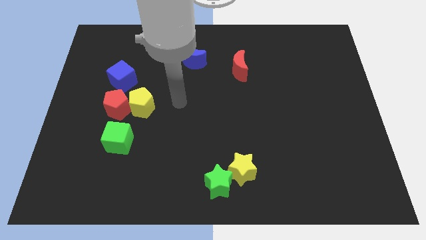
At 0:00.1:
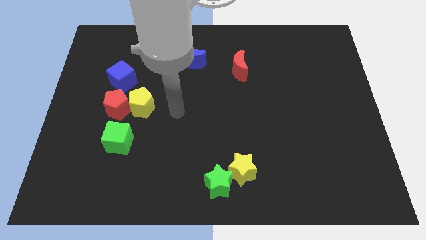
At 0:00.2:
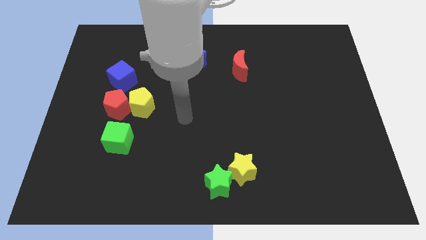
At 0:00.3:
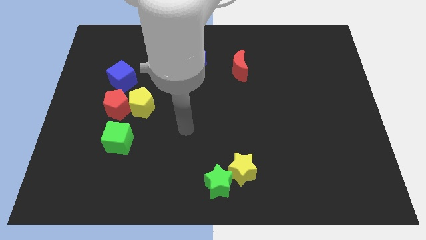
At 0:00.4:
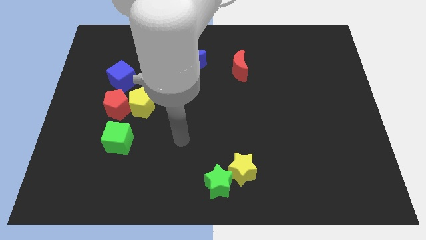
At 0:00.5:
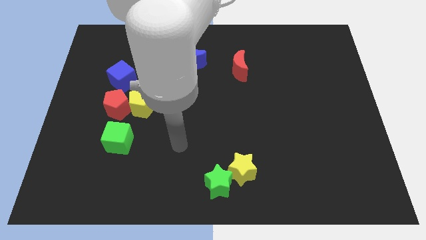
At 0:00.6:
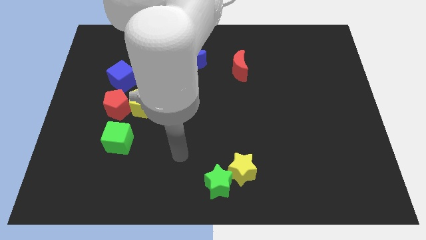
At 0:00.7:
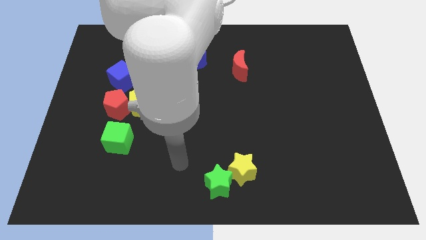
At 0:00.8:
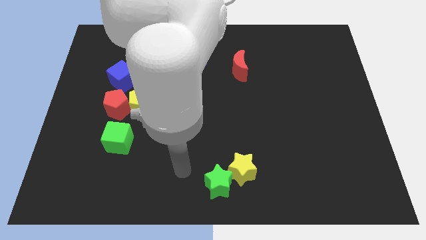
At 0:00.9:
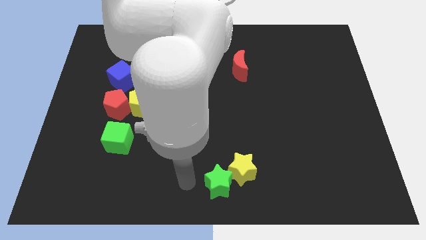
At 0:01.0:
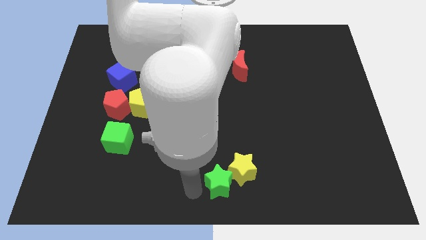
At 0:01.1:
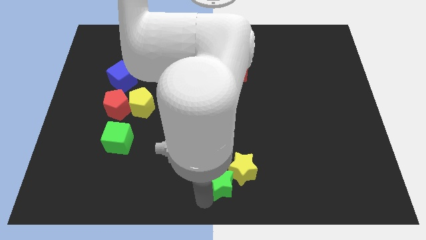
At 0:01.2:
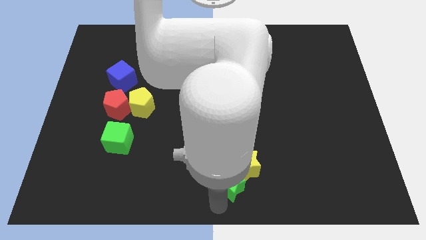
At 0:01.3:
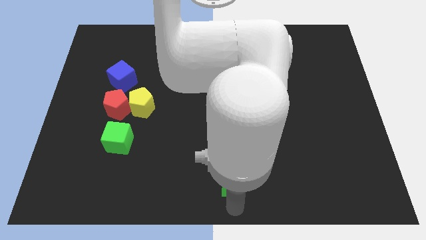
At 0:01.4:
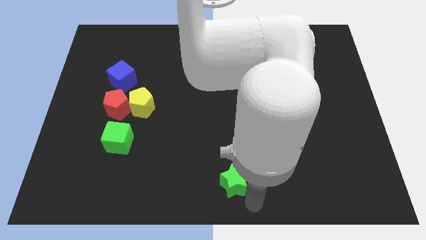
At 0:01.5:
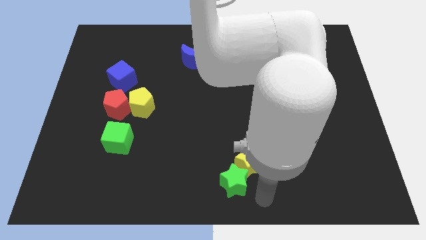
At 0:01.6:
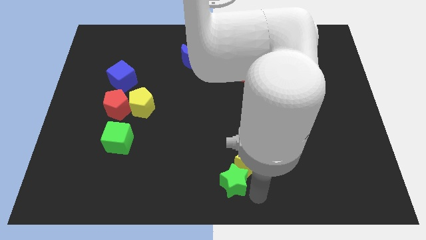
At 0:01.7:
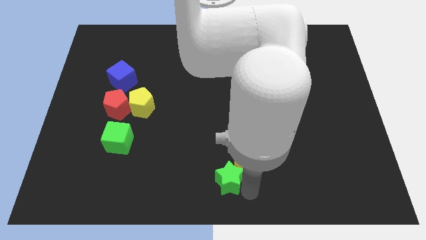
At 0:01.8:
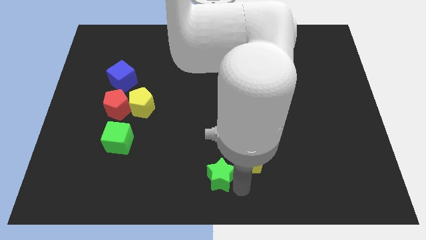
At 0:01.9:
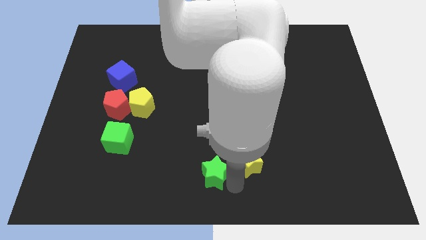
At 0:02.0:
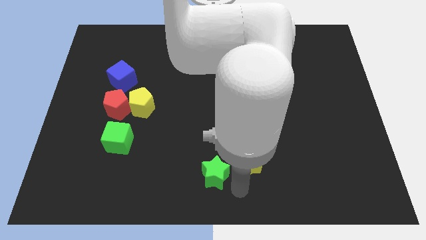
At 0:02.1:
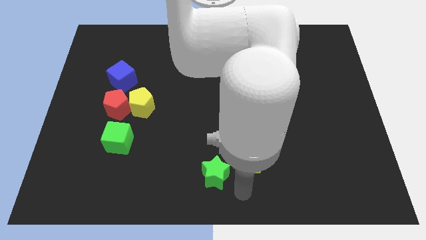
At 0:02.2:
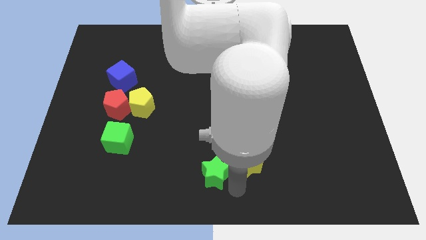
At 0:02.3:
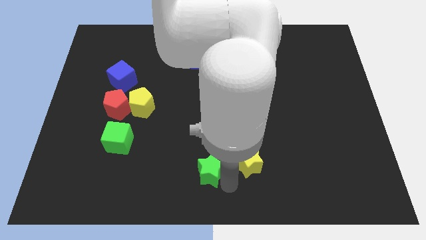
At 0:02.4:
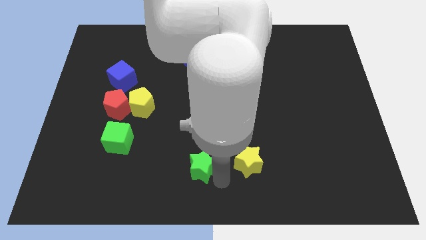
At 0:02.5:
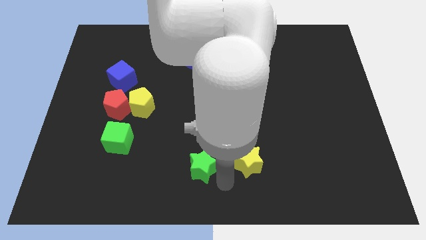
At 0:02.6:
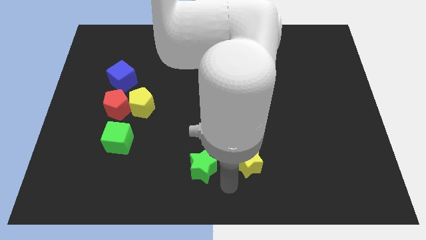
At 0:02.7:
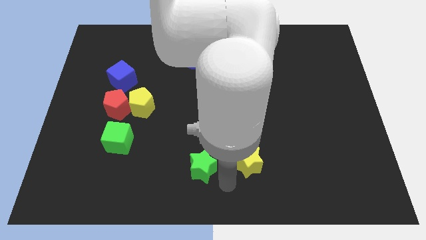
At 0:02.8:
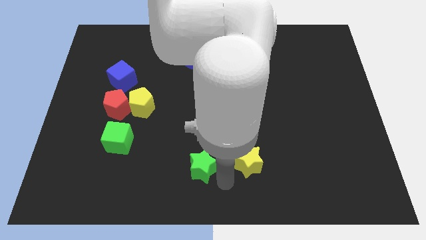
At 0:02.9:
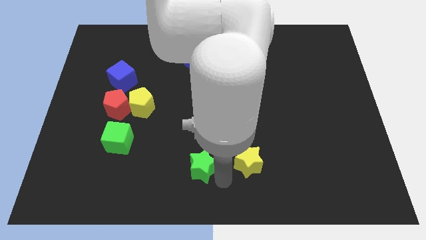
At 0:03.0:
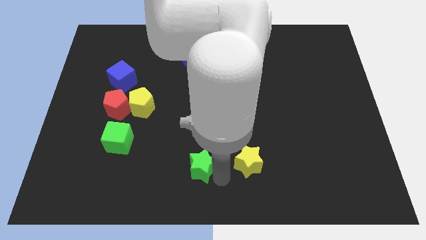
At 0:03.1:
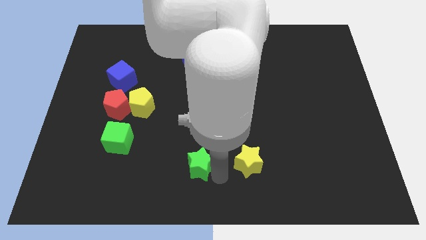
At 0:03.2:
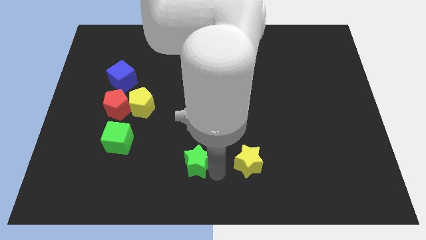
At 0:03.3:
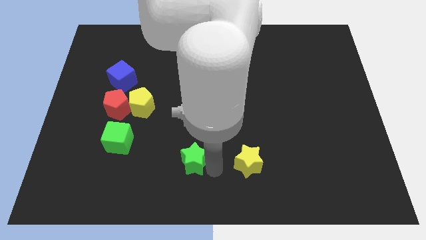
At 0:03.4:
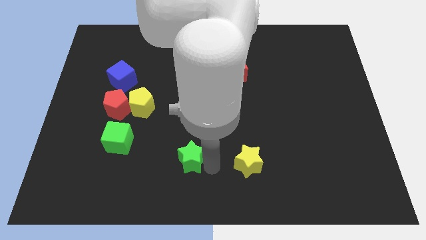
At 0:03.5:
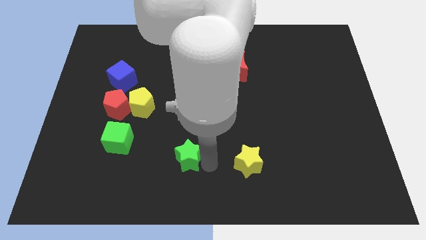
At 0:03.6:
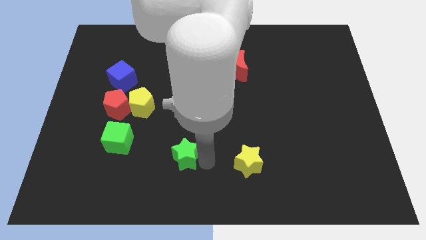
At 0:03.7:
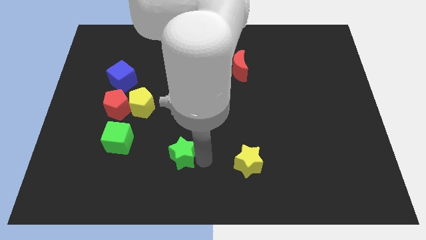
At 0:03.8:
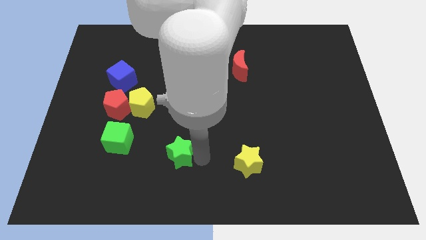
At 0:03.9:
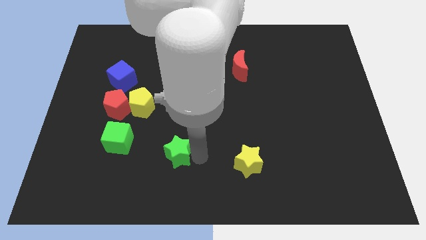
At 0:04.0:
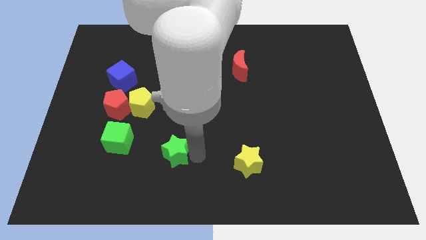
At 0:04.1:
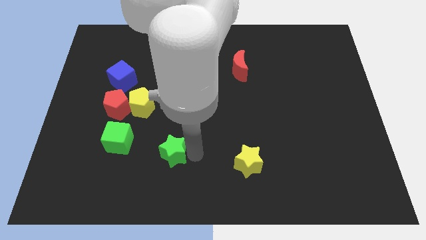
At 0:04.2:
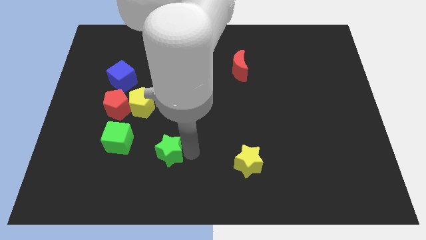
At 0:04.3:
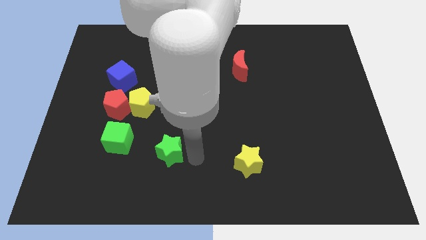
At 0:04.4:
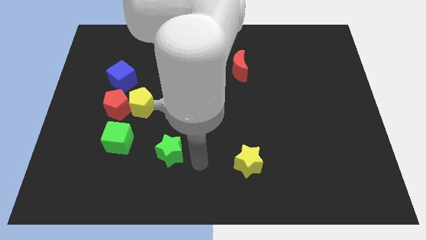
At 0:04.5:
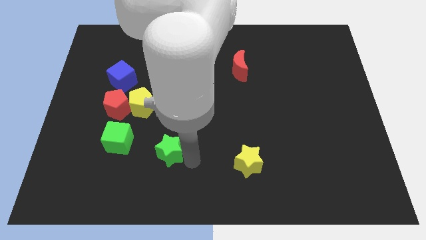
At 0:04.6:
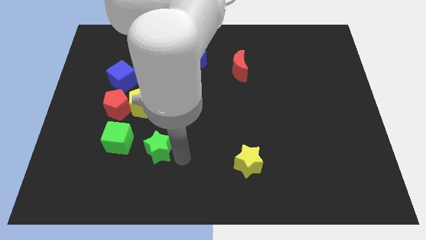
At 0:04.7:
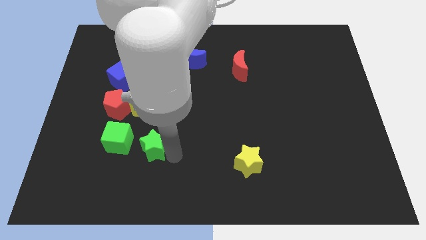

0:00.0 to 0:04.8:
push the green star below the yellow pentagon

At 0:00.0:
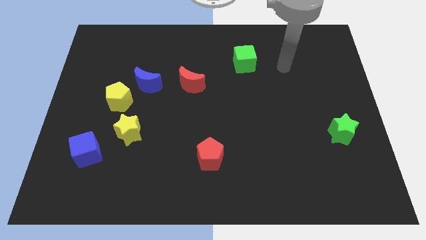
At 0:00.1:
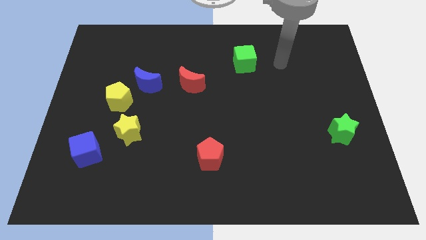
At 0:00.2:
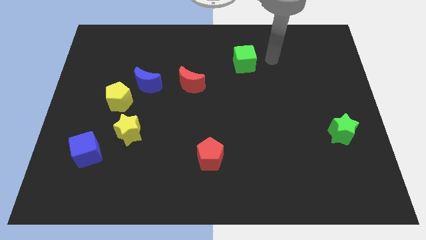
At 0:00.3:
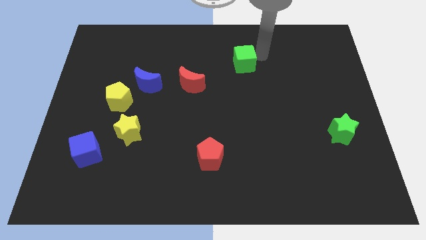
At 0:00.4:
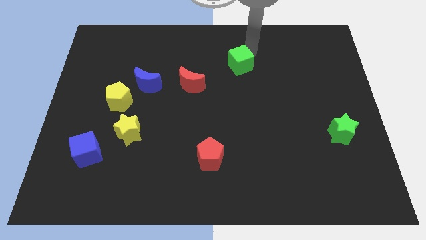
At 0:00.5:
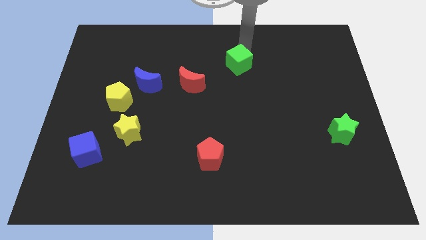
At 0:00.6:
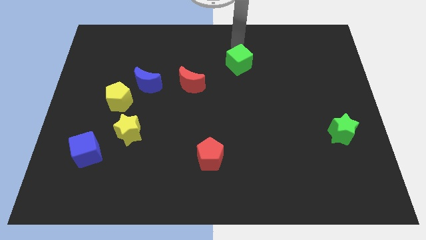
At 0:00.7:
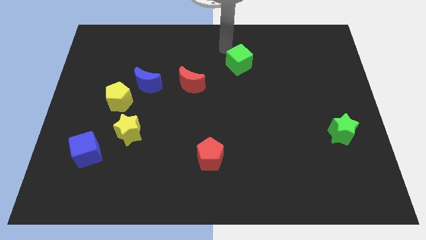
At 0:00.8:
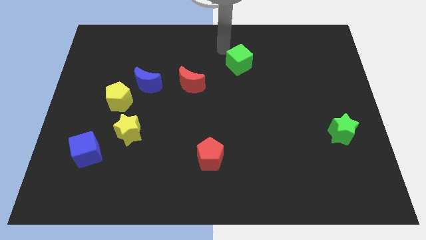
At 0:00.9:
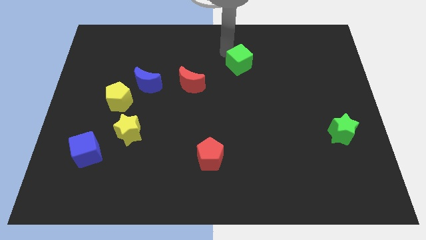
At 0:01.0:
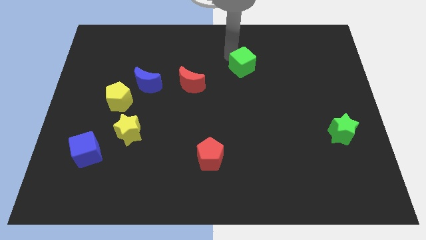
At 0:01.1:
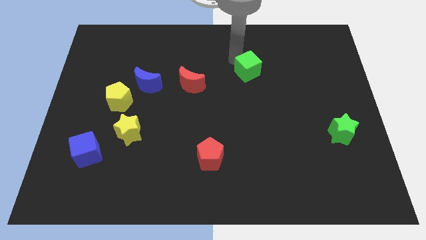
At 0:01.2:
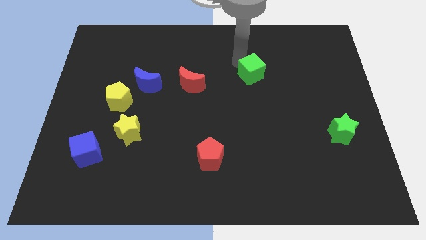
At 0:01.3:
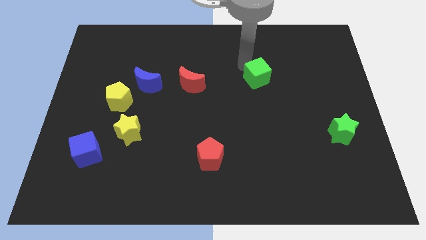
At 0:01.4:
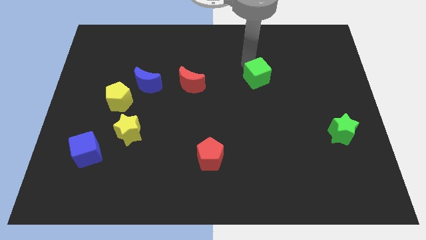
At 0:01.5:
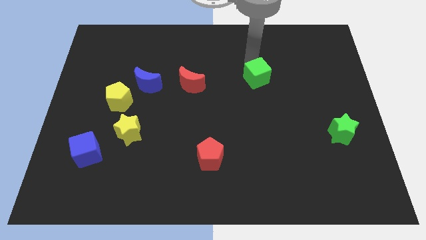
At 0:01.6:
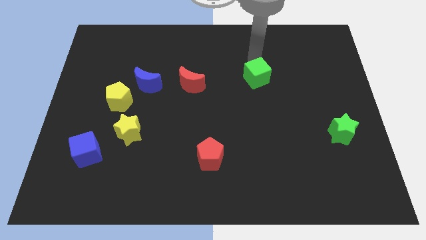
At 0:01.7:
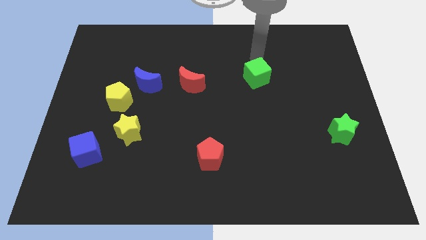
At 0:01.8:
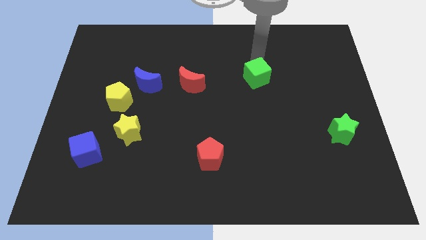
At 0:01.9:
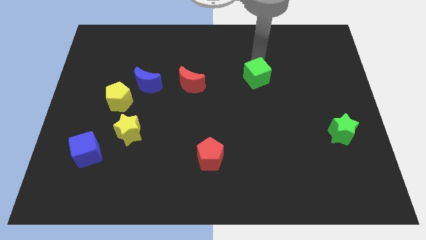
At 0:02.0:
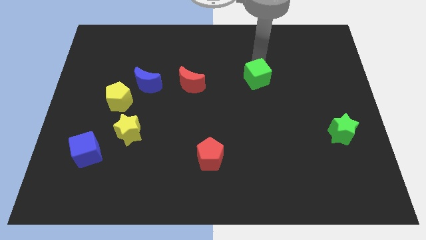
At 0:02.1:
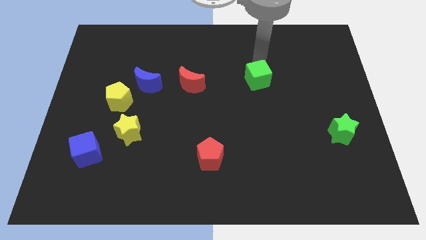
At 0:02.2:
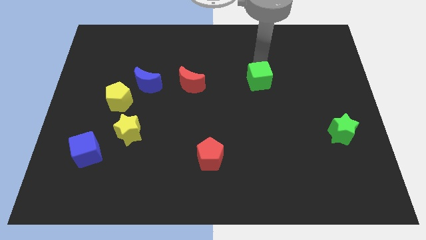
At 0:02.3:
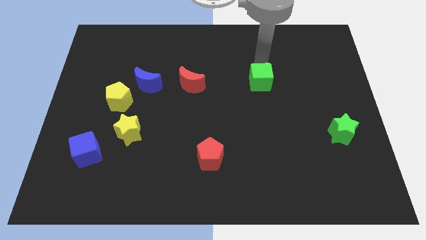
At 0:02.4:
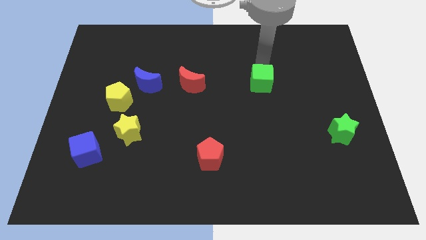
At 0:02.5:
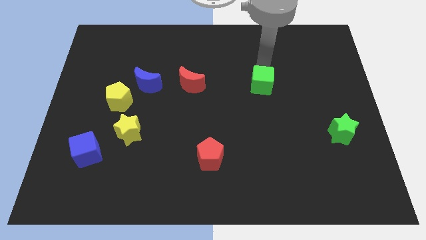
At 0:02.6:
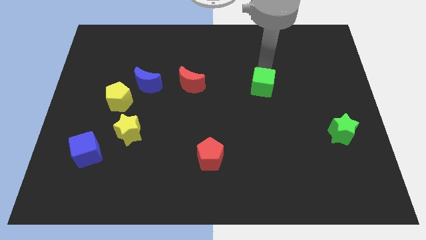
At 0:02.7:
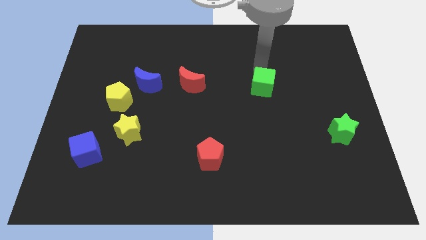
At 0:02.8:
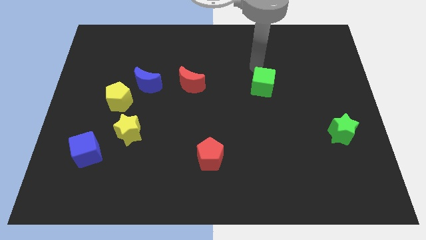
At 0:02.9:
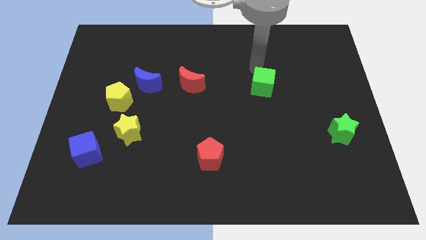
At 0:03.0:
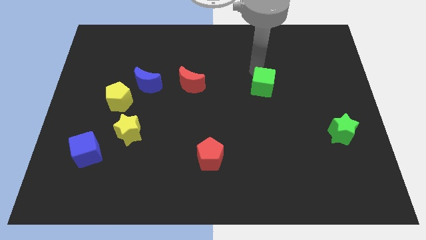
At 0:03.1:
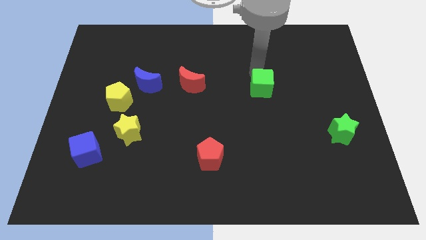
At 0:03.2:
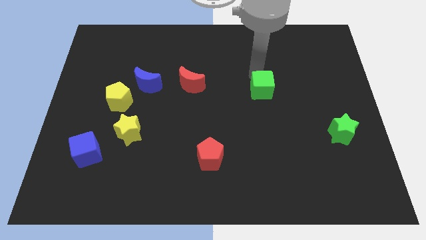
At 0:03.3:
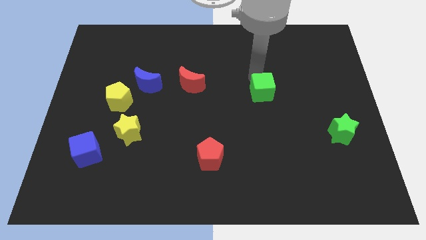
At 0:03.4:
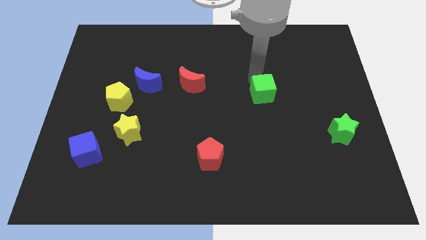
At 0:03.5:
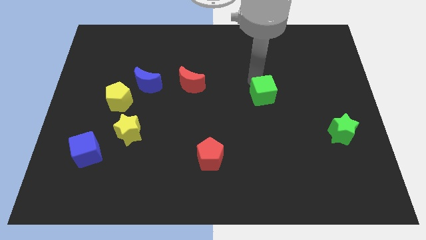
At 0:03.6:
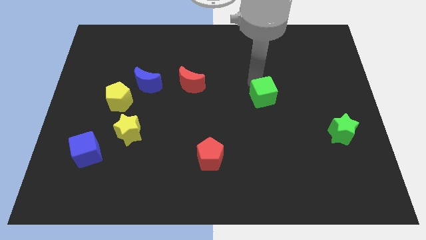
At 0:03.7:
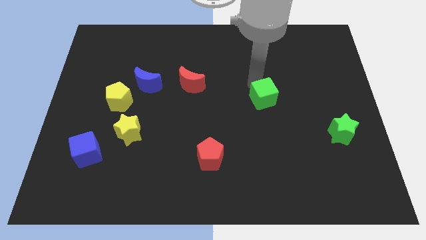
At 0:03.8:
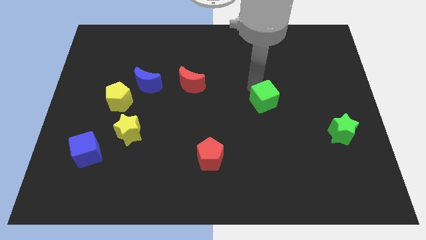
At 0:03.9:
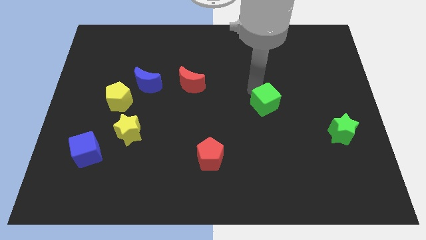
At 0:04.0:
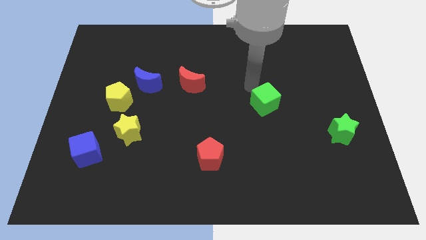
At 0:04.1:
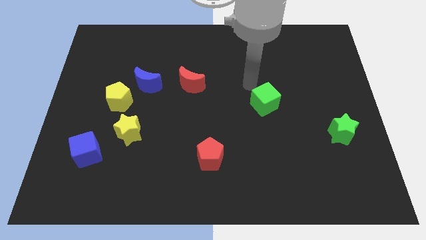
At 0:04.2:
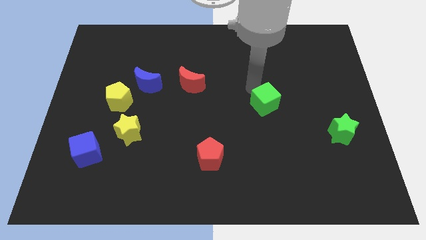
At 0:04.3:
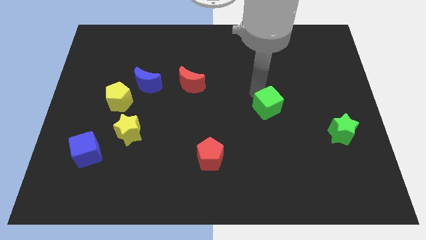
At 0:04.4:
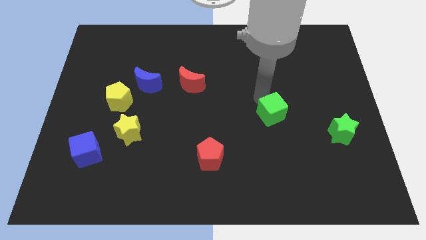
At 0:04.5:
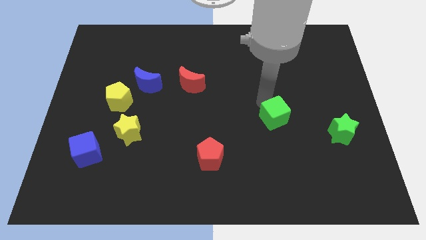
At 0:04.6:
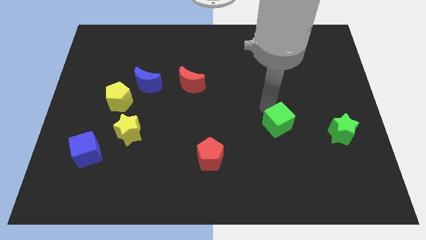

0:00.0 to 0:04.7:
move the green cube to the left side of the green star
